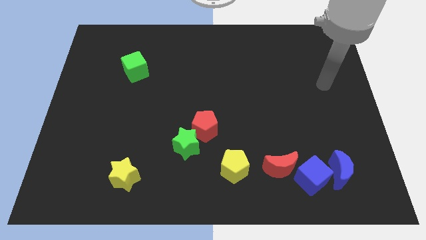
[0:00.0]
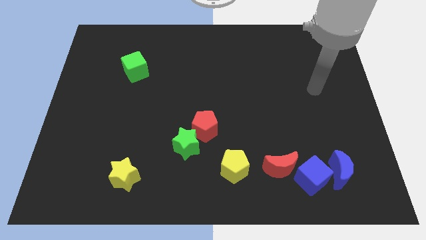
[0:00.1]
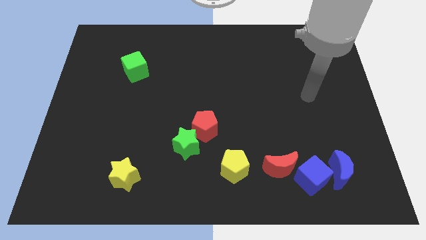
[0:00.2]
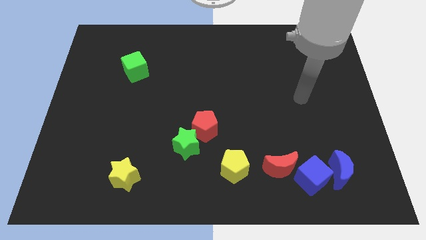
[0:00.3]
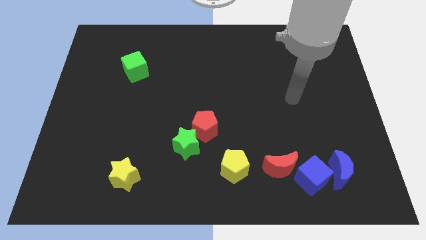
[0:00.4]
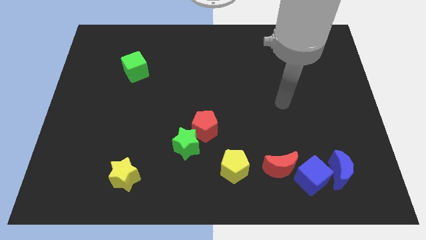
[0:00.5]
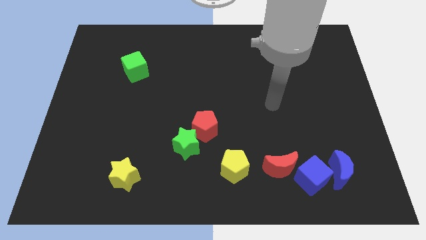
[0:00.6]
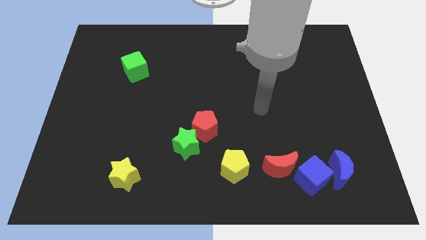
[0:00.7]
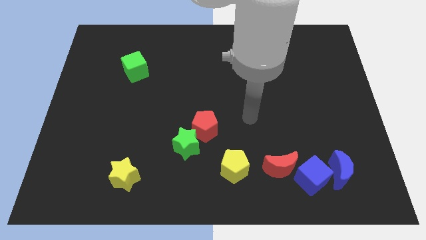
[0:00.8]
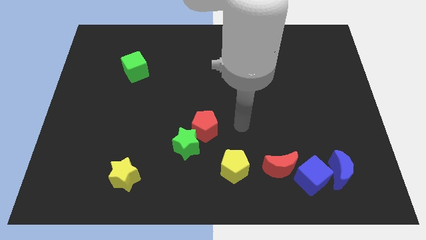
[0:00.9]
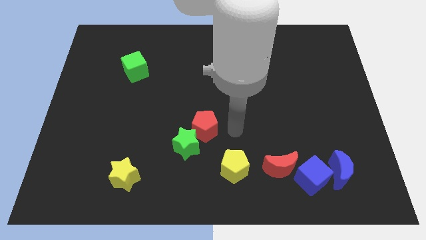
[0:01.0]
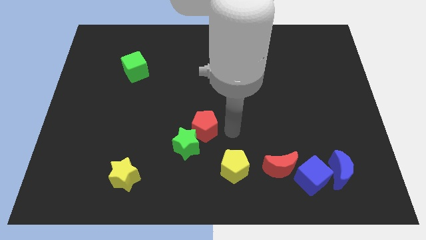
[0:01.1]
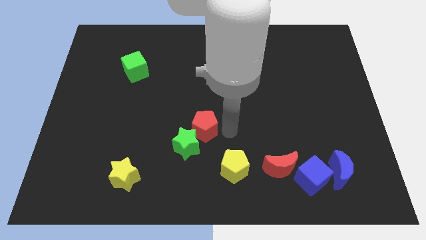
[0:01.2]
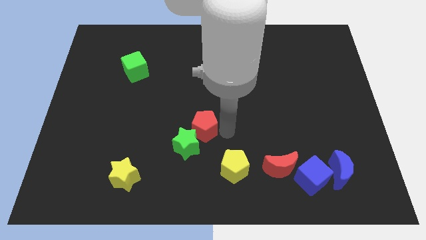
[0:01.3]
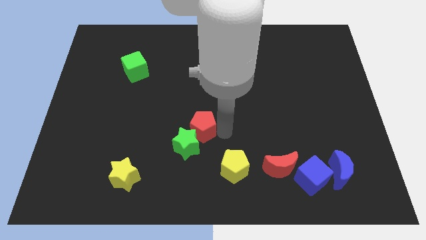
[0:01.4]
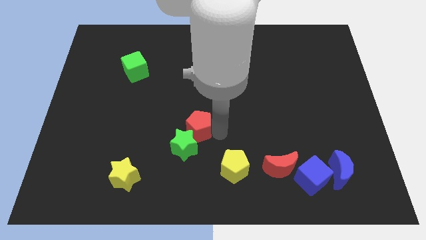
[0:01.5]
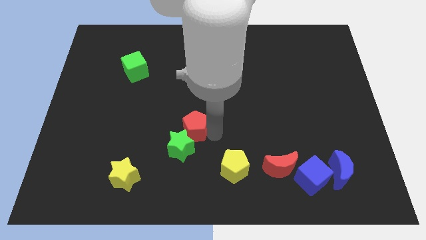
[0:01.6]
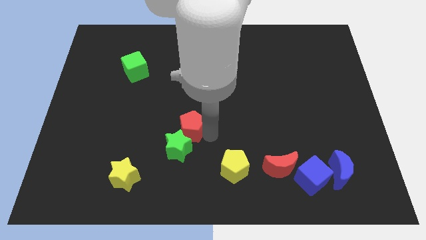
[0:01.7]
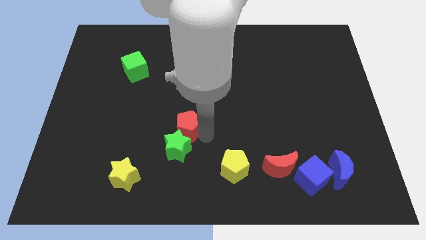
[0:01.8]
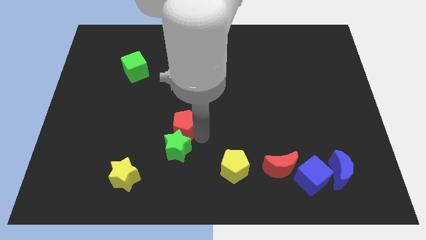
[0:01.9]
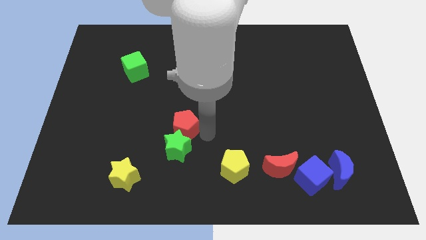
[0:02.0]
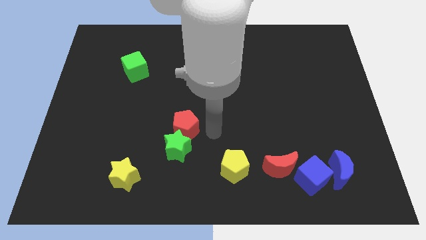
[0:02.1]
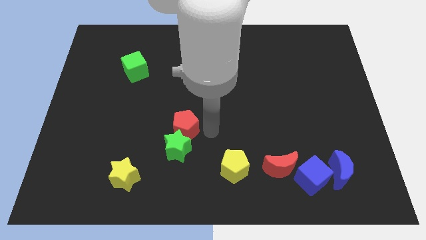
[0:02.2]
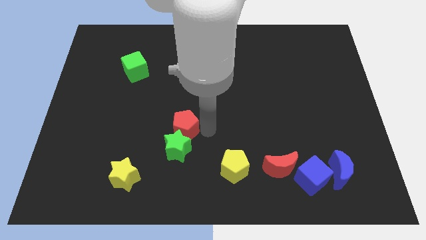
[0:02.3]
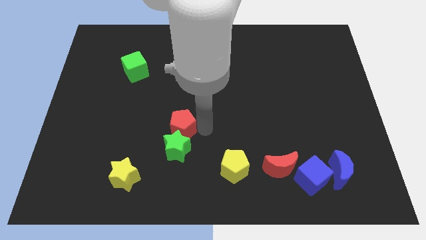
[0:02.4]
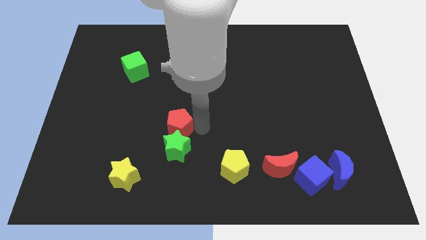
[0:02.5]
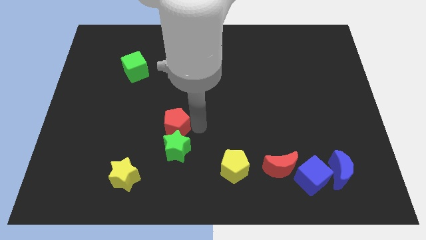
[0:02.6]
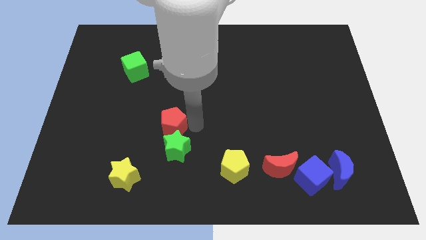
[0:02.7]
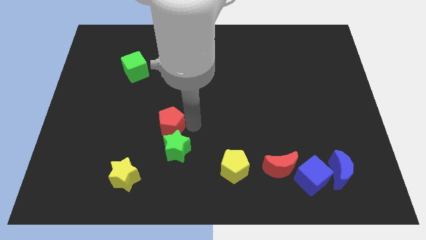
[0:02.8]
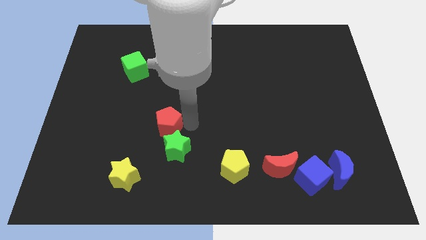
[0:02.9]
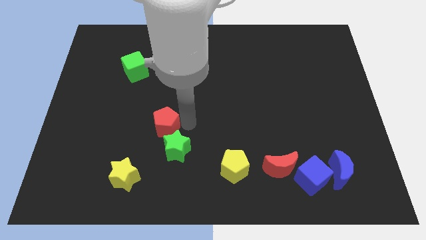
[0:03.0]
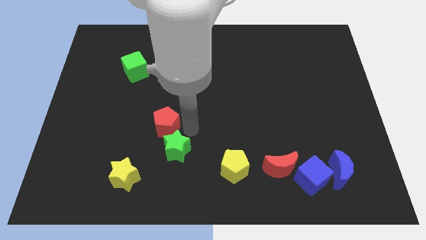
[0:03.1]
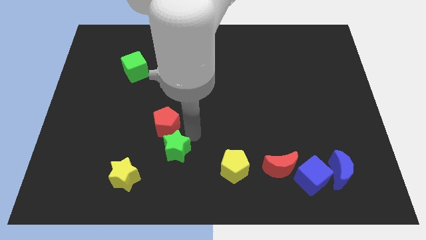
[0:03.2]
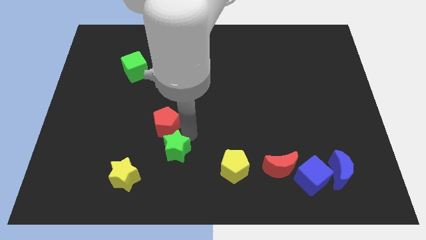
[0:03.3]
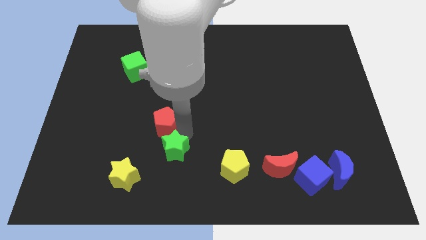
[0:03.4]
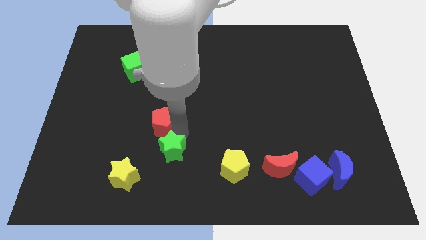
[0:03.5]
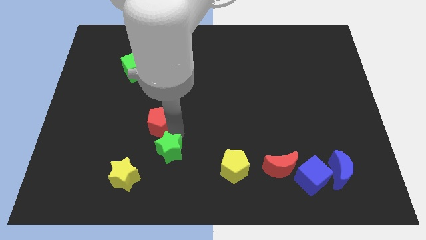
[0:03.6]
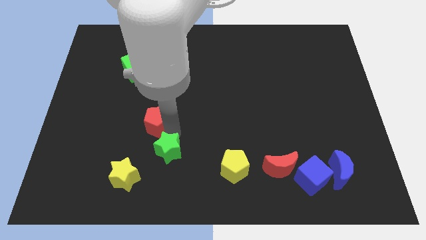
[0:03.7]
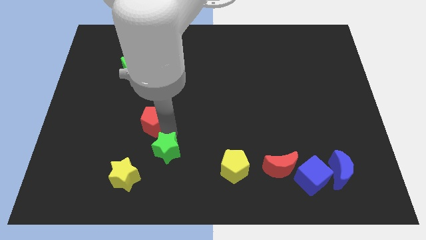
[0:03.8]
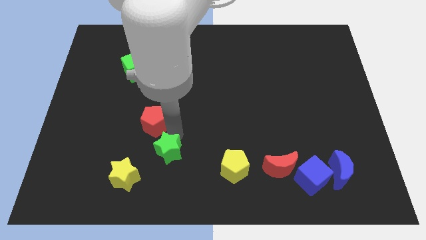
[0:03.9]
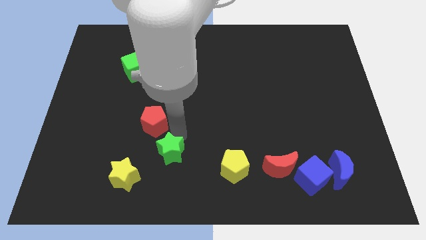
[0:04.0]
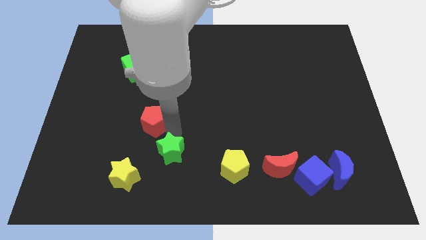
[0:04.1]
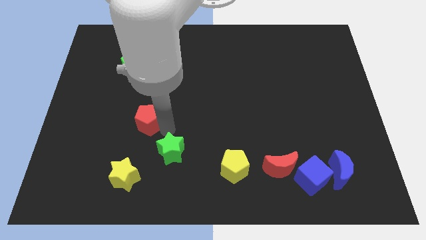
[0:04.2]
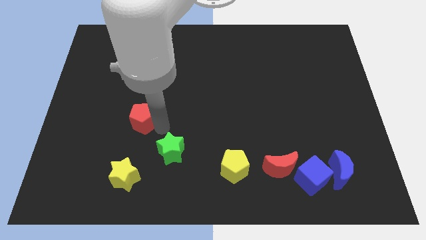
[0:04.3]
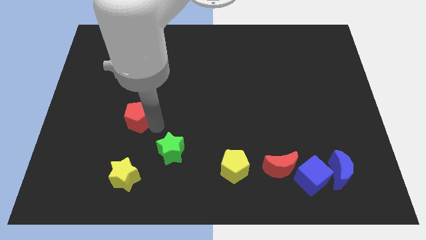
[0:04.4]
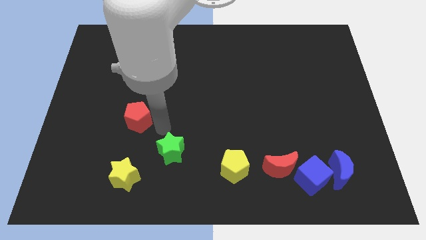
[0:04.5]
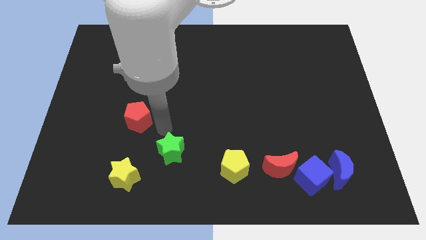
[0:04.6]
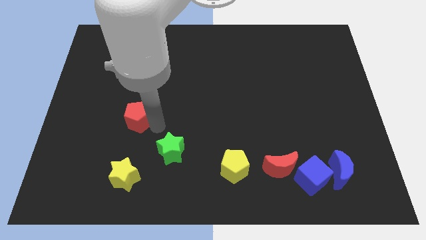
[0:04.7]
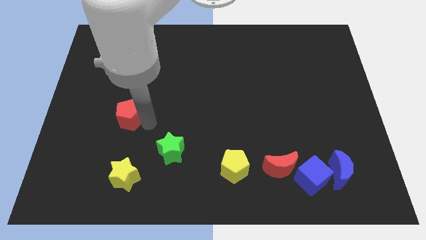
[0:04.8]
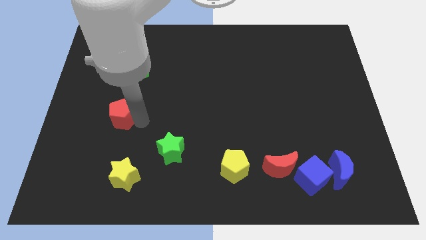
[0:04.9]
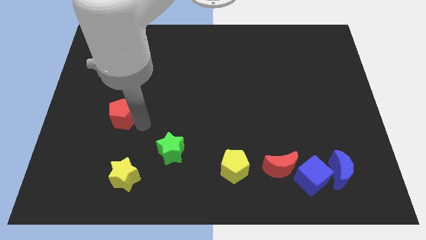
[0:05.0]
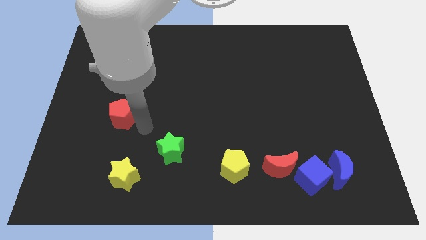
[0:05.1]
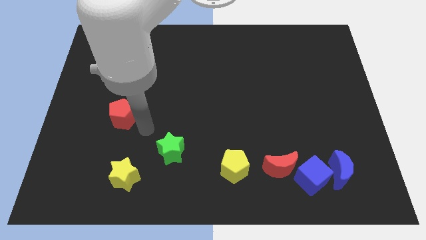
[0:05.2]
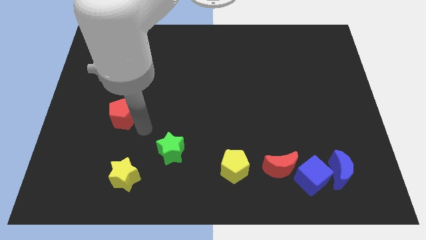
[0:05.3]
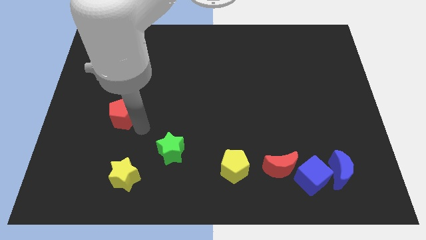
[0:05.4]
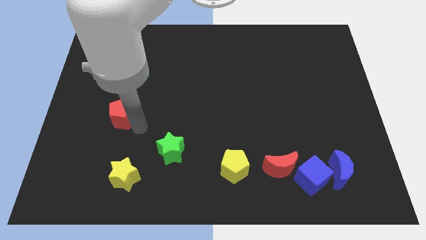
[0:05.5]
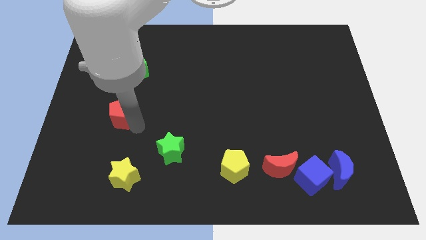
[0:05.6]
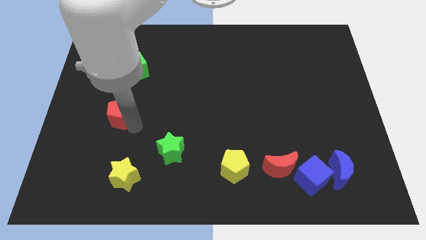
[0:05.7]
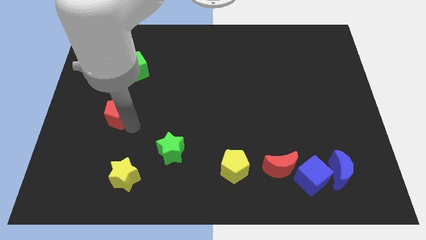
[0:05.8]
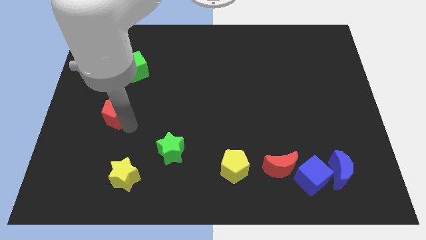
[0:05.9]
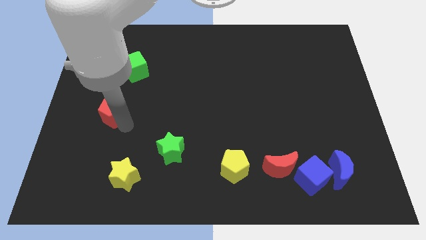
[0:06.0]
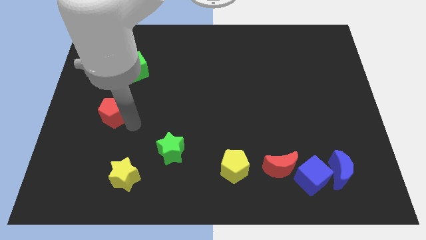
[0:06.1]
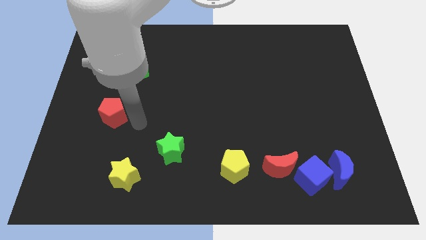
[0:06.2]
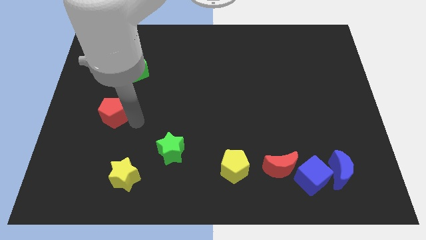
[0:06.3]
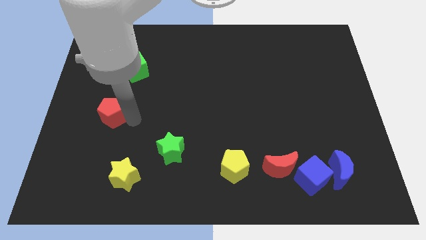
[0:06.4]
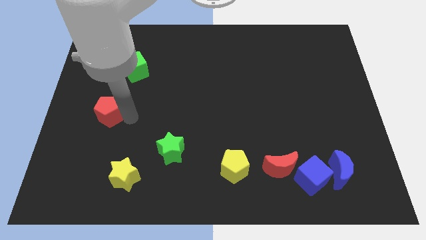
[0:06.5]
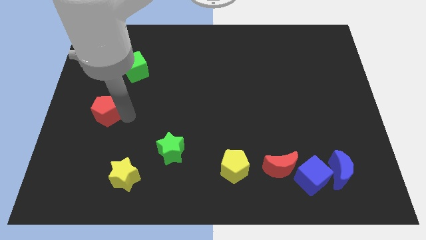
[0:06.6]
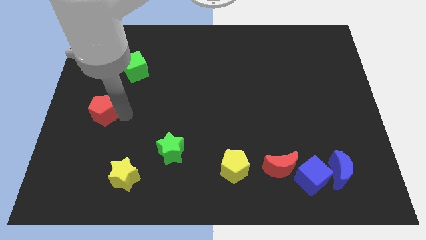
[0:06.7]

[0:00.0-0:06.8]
slide the red pentagon to the center left
